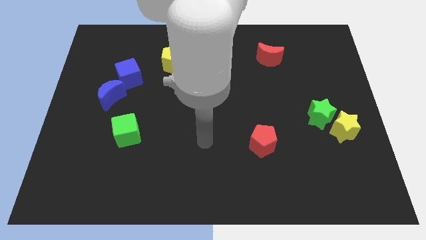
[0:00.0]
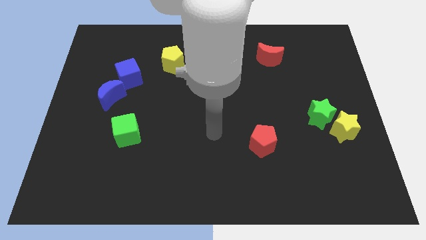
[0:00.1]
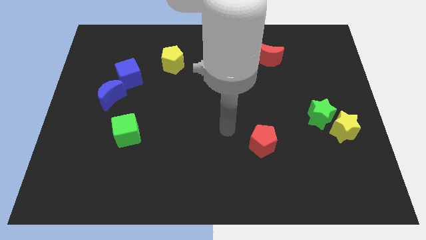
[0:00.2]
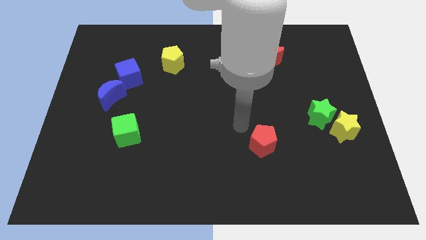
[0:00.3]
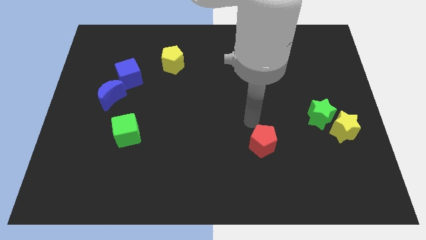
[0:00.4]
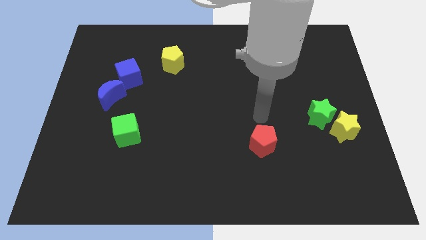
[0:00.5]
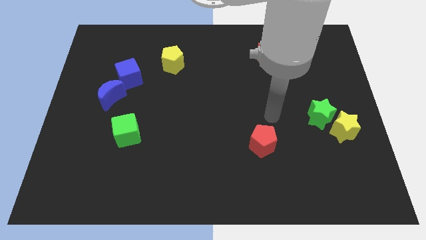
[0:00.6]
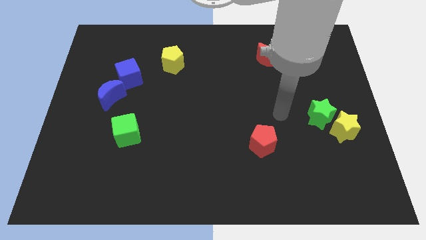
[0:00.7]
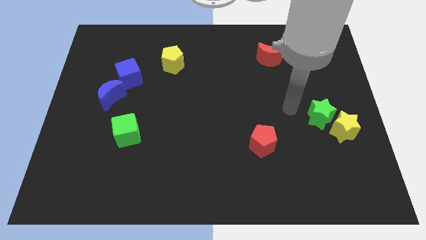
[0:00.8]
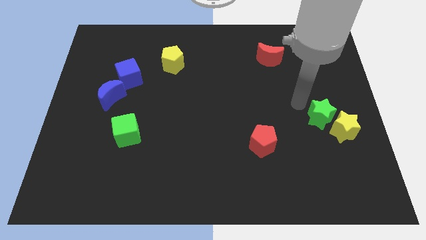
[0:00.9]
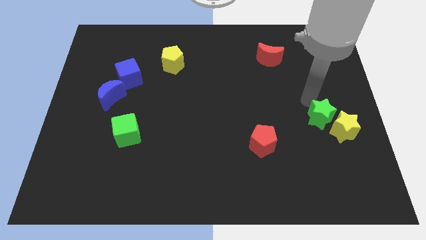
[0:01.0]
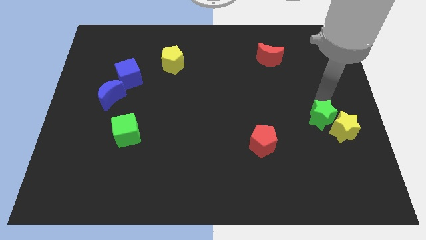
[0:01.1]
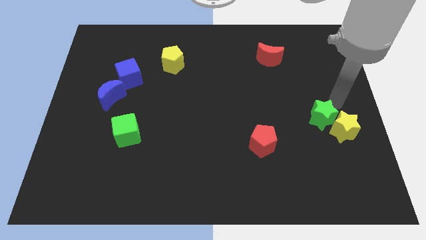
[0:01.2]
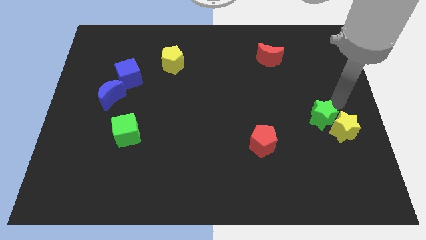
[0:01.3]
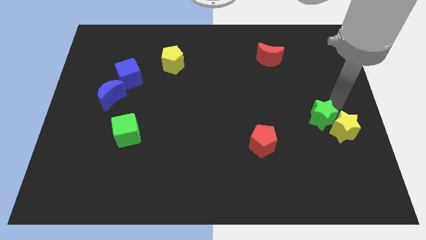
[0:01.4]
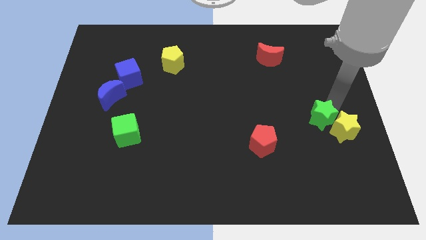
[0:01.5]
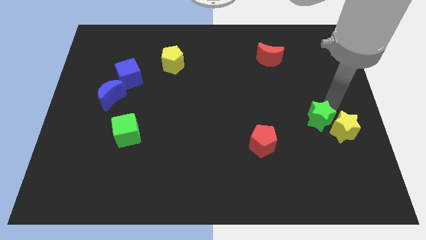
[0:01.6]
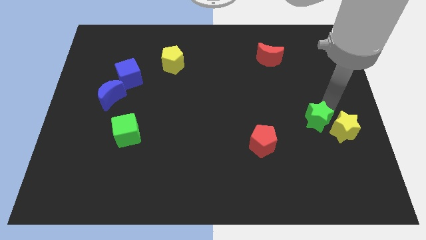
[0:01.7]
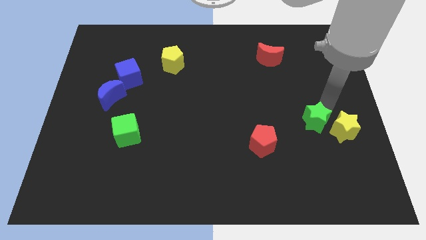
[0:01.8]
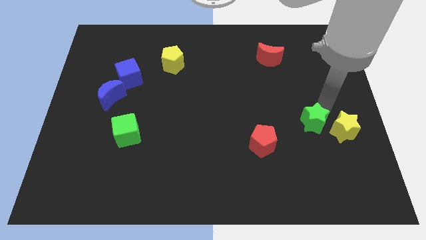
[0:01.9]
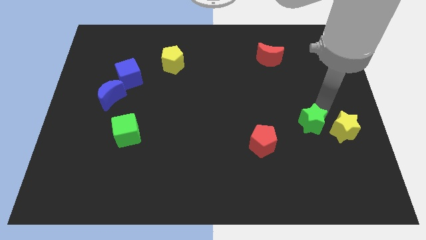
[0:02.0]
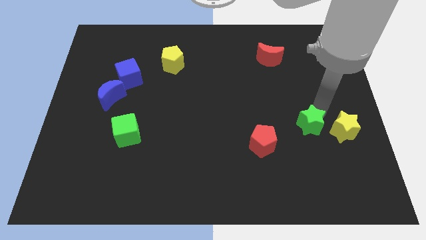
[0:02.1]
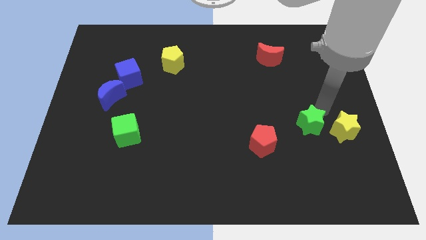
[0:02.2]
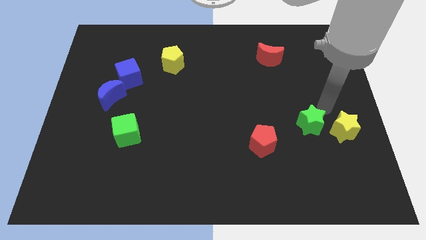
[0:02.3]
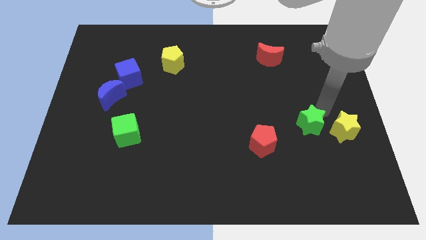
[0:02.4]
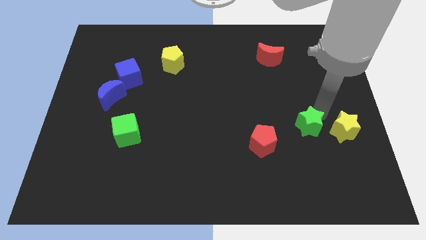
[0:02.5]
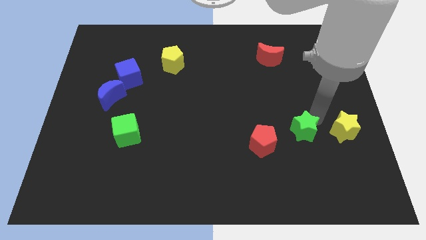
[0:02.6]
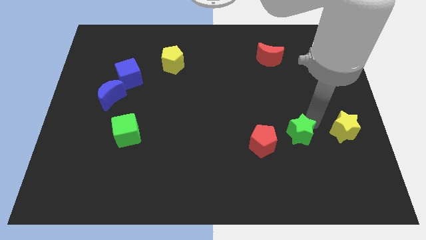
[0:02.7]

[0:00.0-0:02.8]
push the green star downwards and to the left diagonally slightly

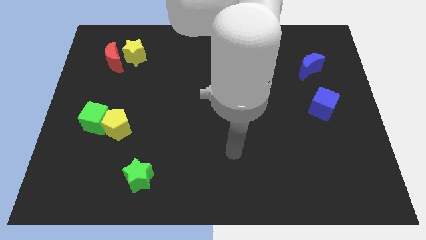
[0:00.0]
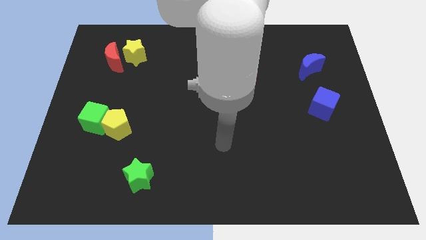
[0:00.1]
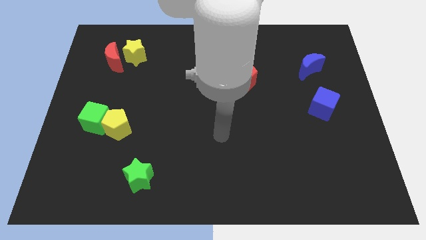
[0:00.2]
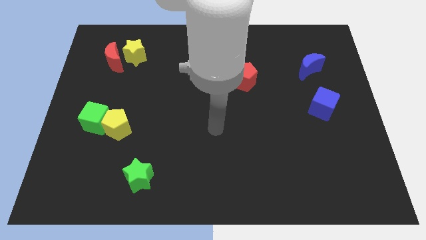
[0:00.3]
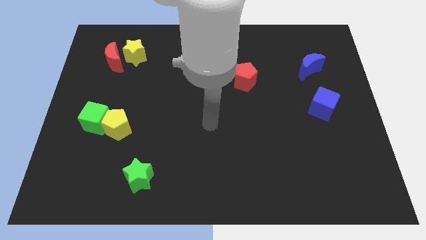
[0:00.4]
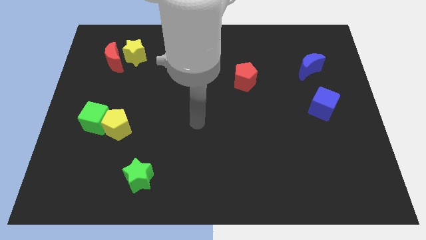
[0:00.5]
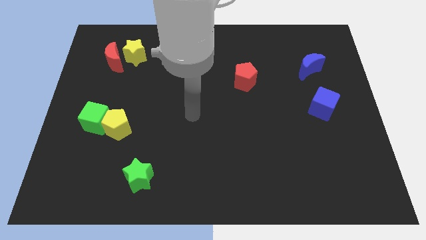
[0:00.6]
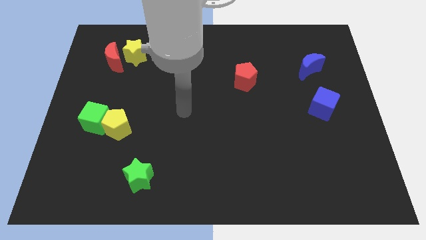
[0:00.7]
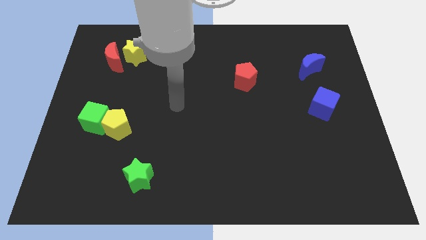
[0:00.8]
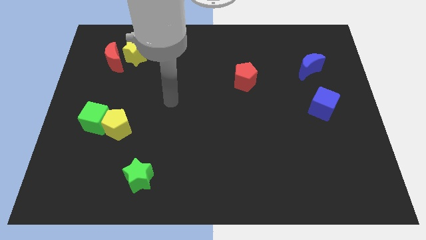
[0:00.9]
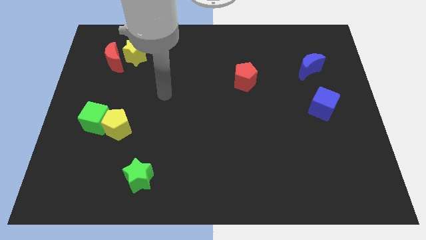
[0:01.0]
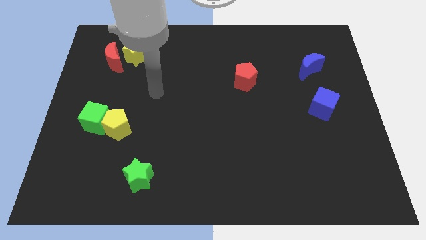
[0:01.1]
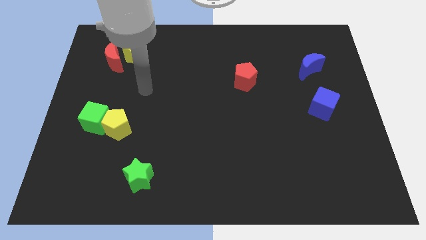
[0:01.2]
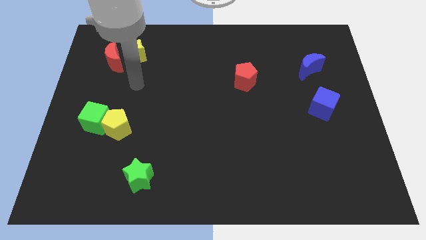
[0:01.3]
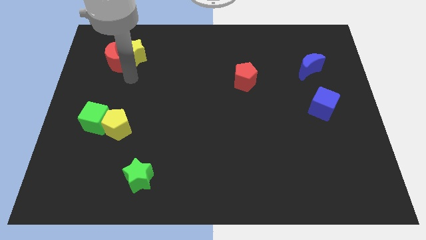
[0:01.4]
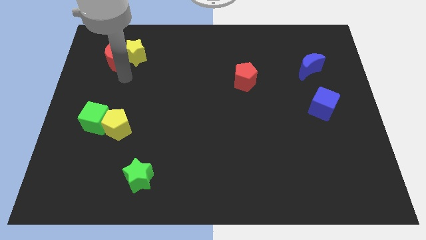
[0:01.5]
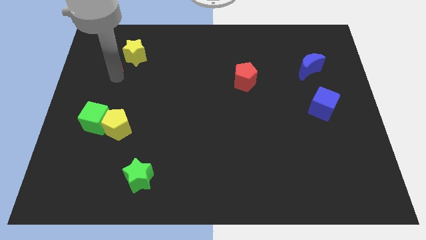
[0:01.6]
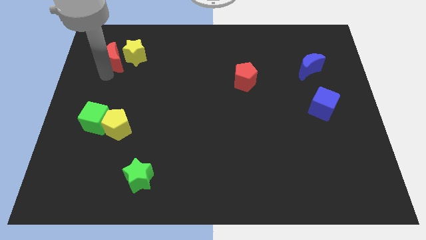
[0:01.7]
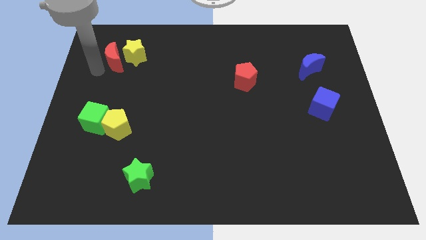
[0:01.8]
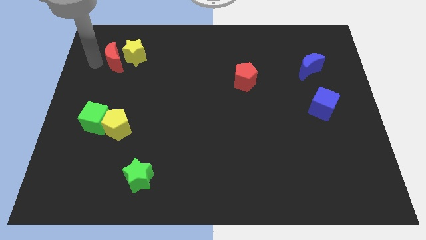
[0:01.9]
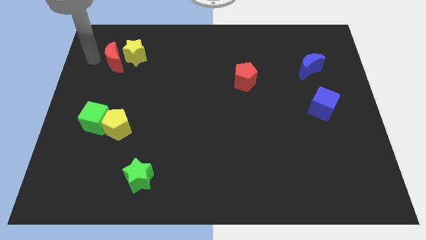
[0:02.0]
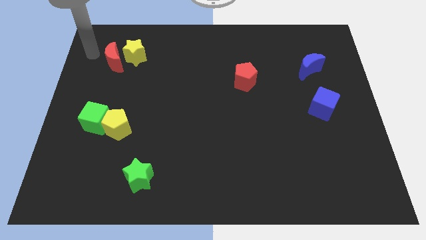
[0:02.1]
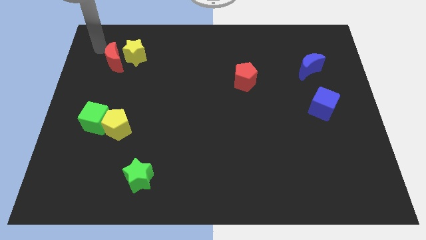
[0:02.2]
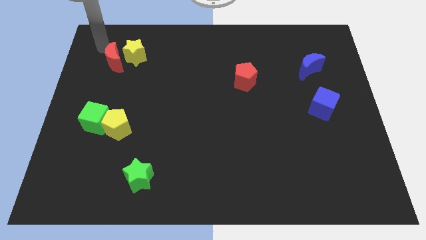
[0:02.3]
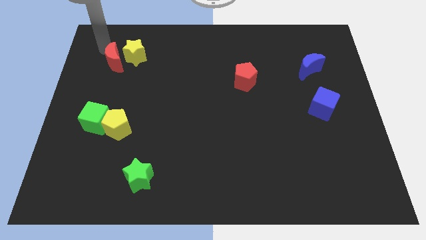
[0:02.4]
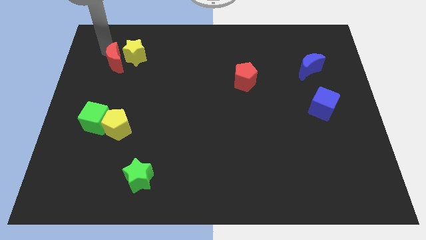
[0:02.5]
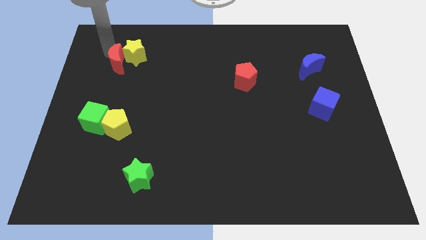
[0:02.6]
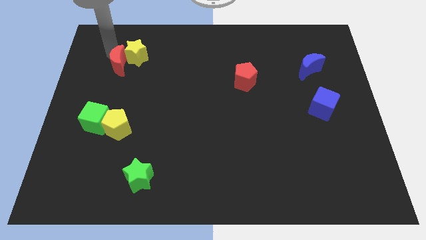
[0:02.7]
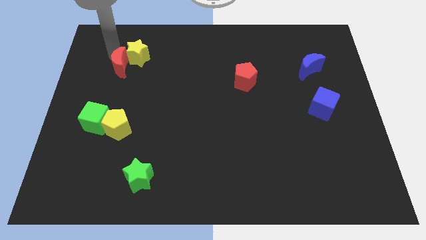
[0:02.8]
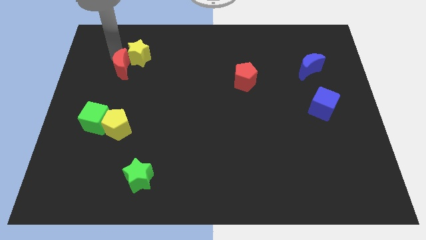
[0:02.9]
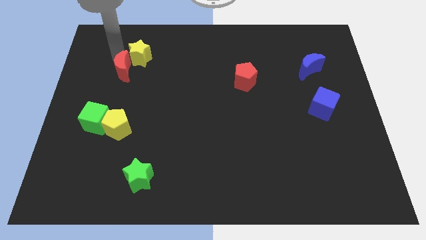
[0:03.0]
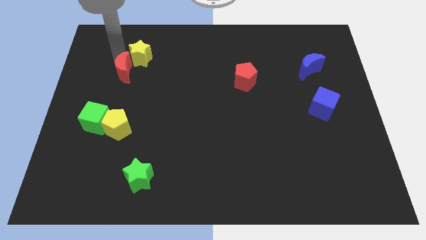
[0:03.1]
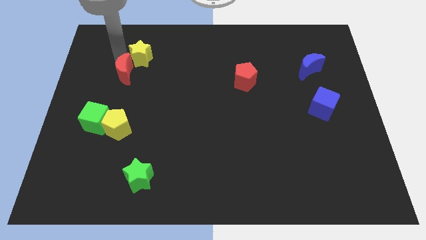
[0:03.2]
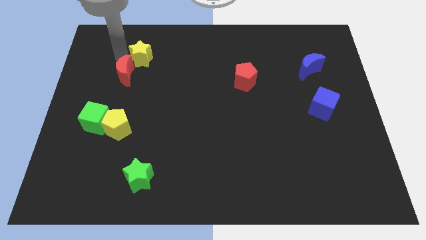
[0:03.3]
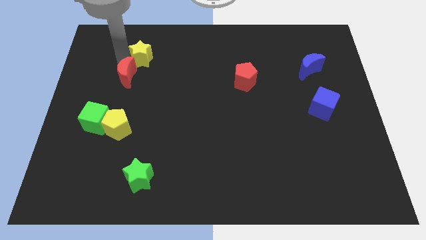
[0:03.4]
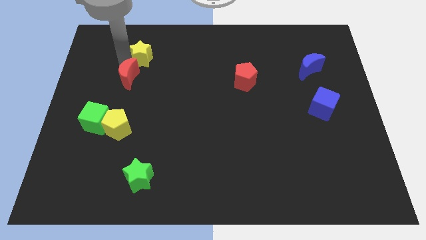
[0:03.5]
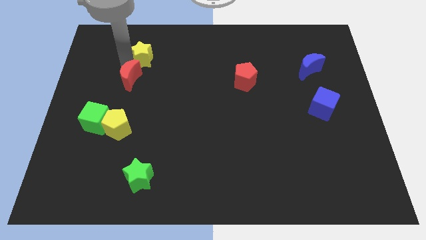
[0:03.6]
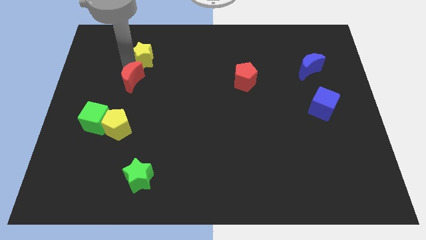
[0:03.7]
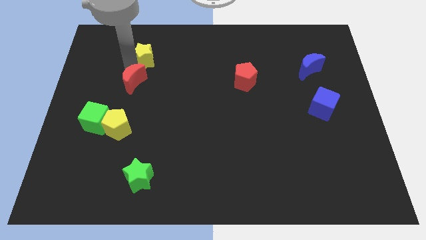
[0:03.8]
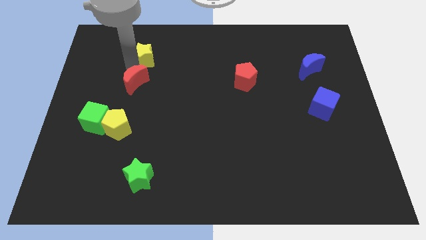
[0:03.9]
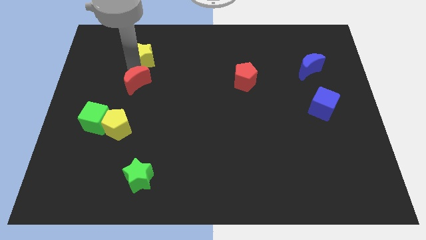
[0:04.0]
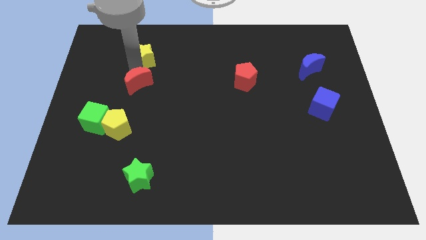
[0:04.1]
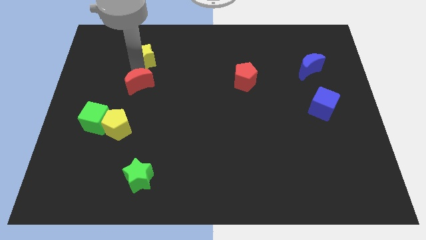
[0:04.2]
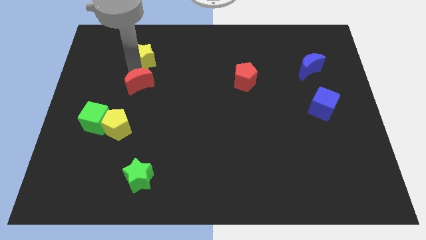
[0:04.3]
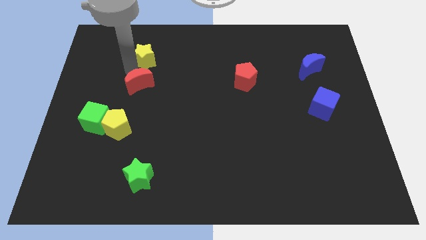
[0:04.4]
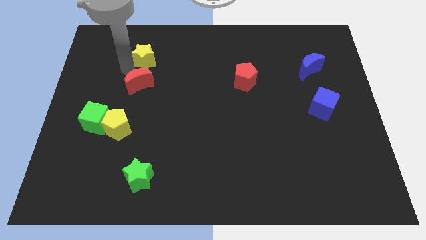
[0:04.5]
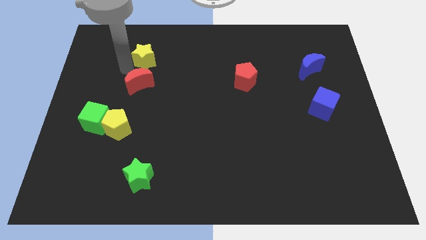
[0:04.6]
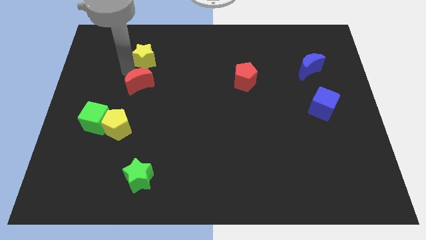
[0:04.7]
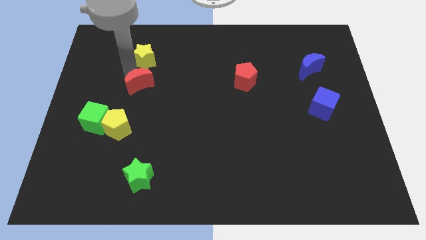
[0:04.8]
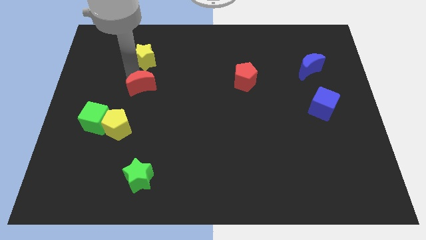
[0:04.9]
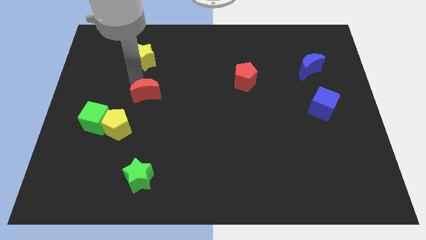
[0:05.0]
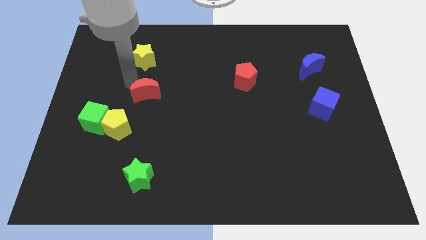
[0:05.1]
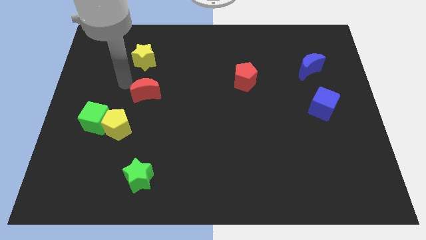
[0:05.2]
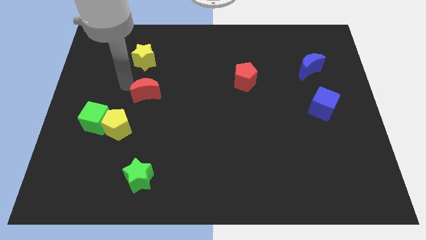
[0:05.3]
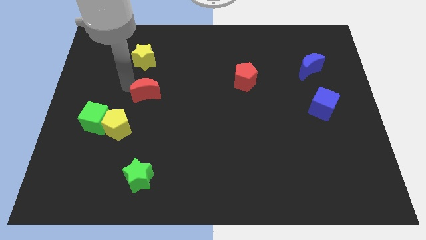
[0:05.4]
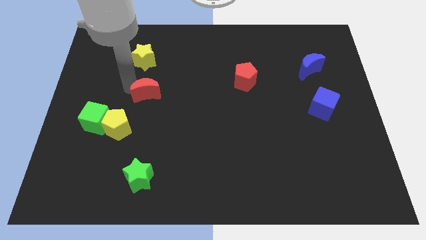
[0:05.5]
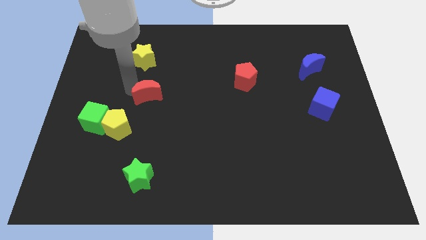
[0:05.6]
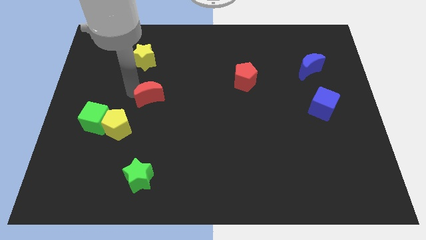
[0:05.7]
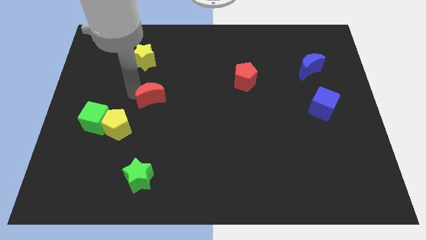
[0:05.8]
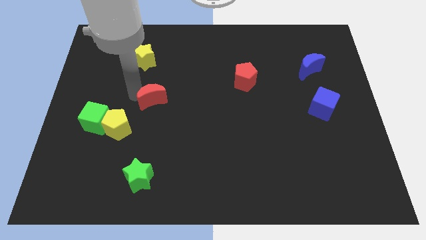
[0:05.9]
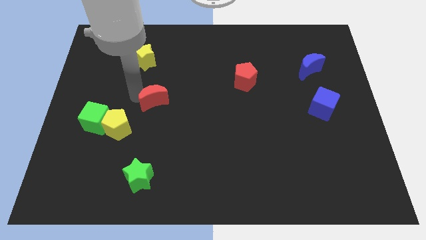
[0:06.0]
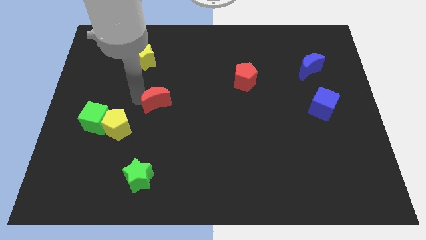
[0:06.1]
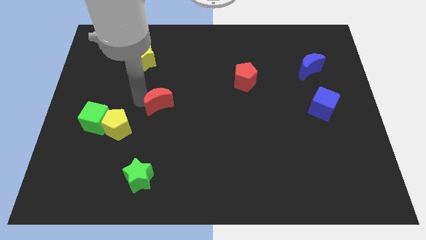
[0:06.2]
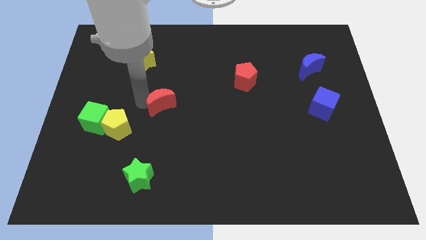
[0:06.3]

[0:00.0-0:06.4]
move the red moon down and then to the right
